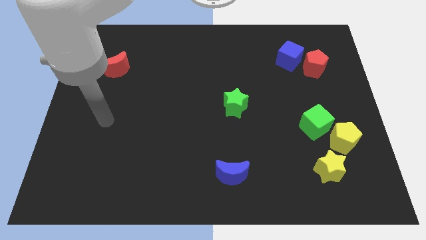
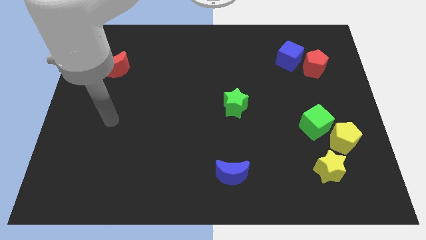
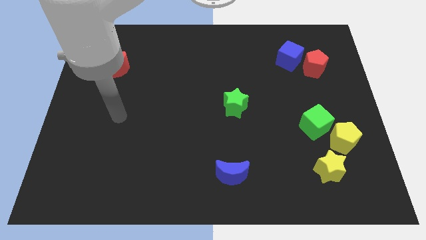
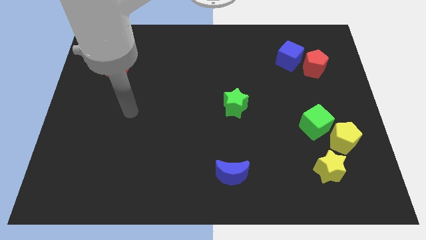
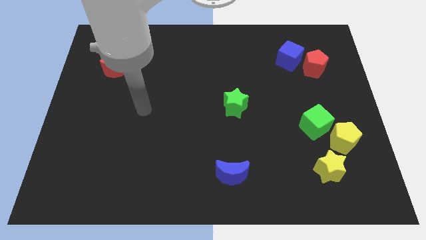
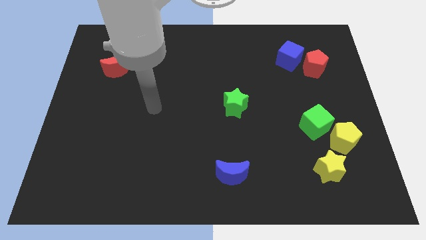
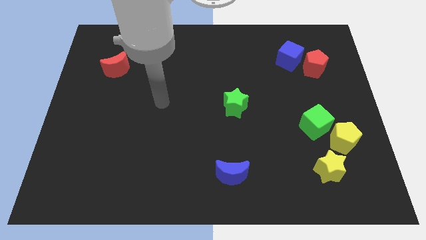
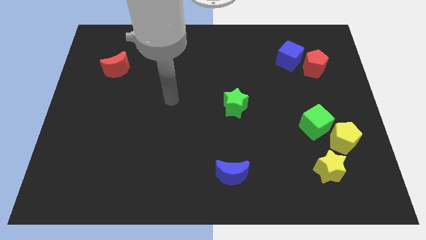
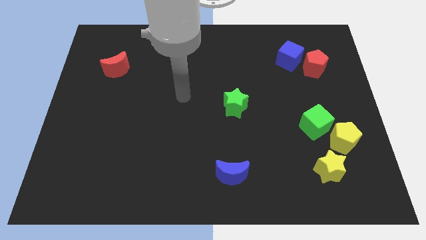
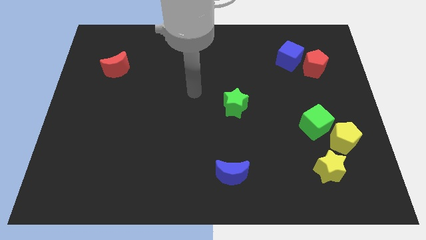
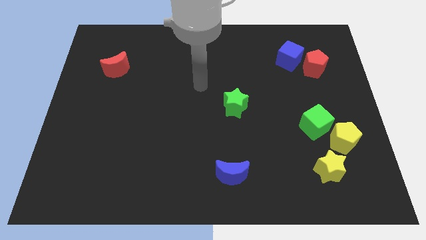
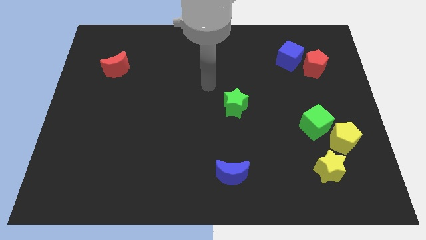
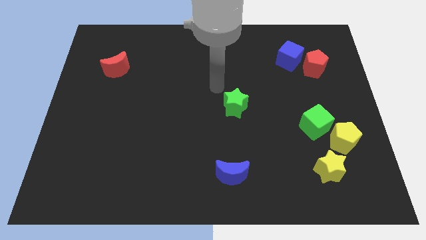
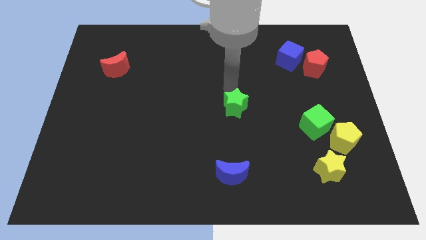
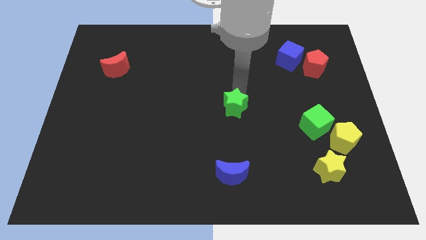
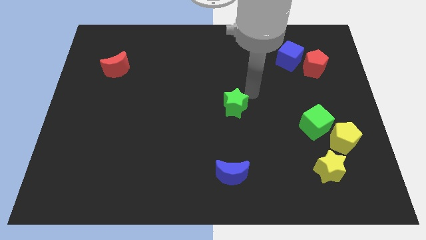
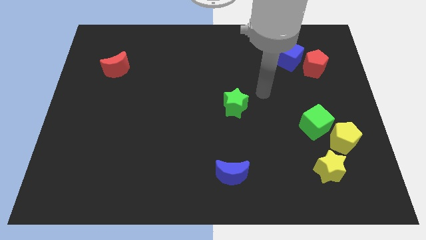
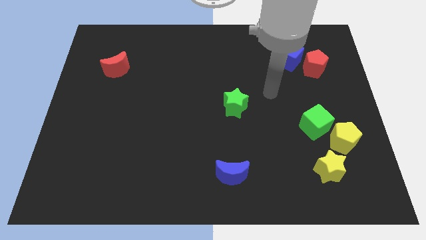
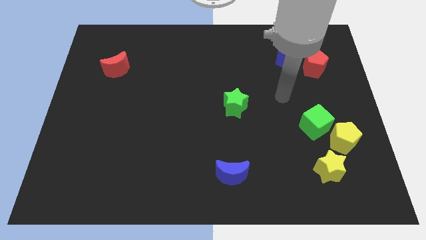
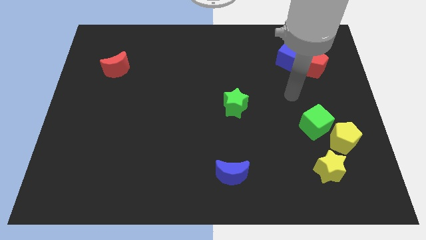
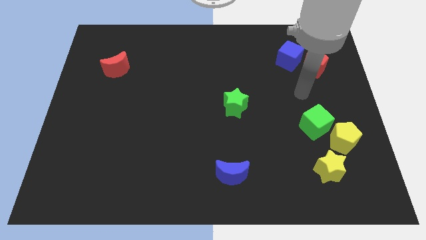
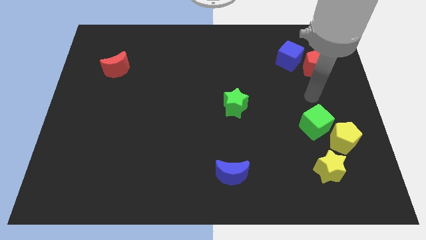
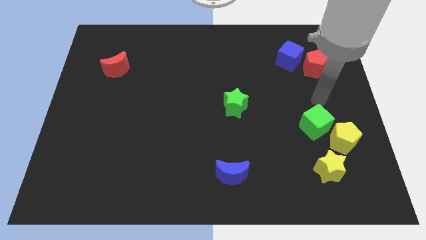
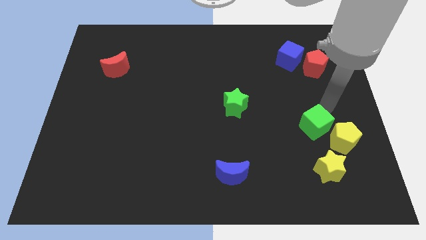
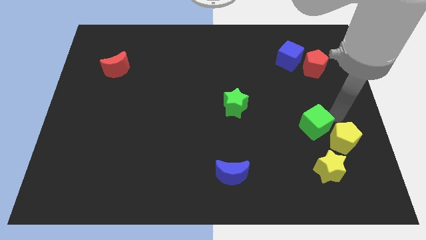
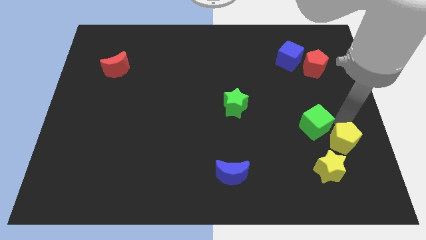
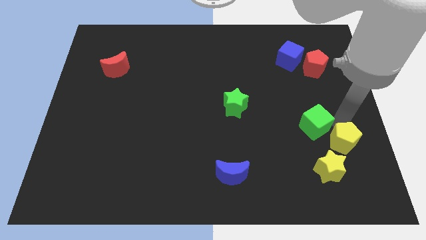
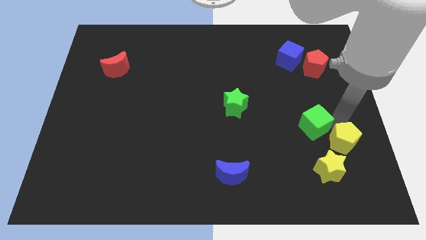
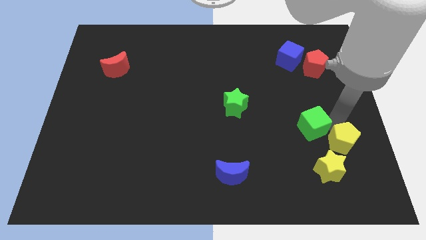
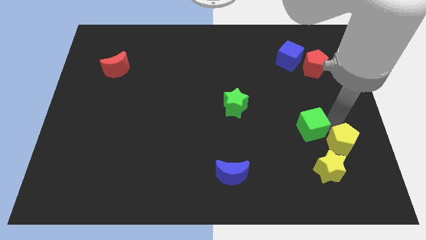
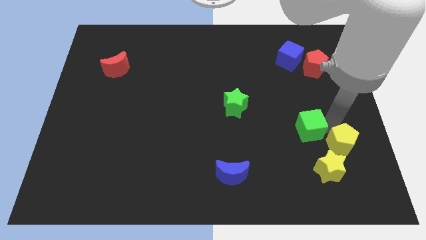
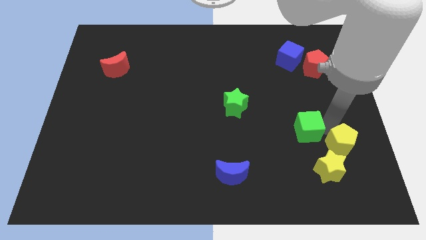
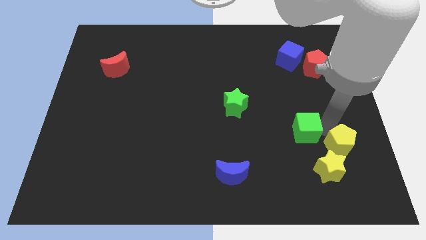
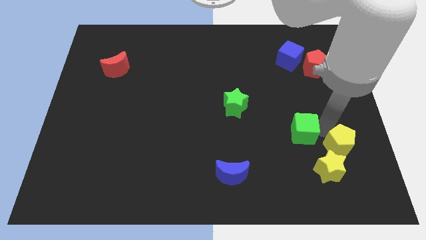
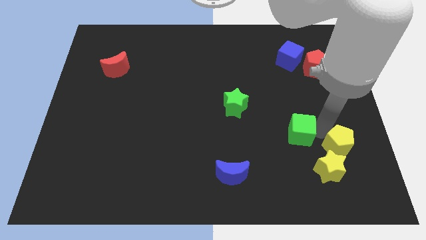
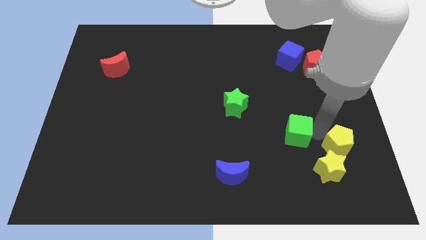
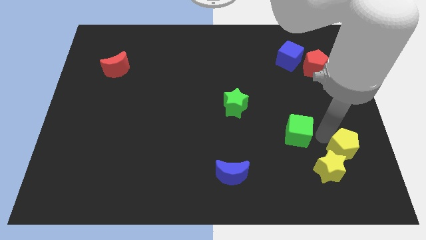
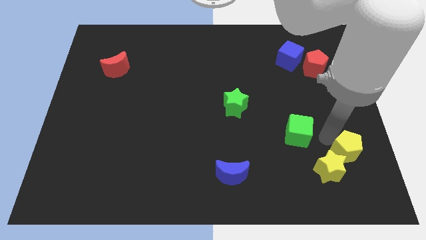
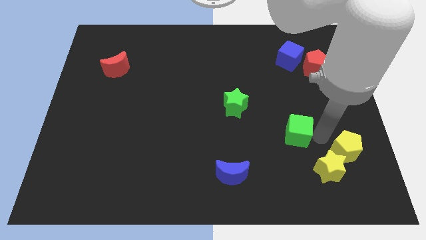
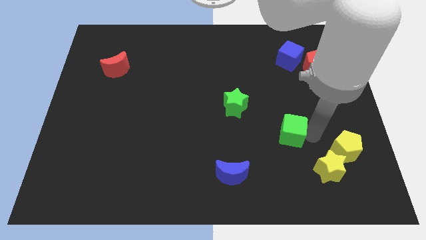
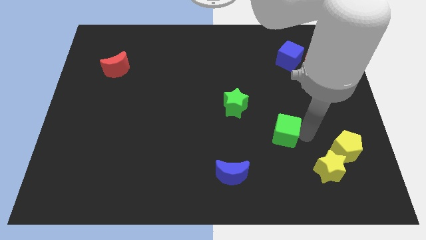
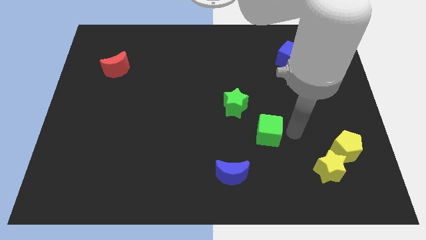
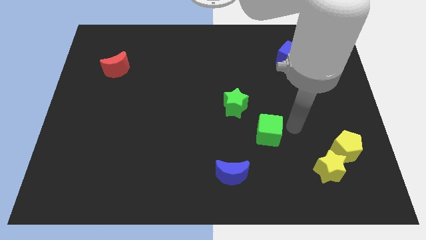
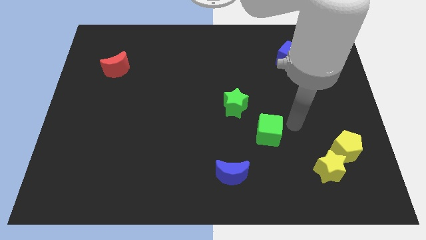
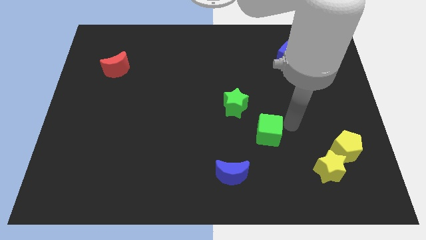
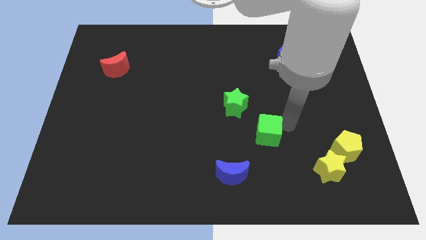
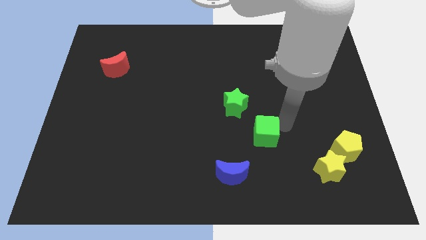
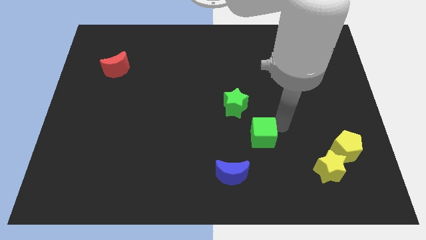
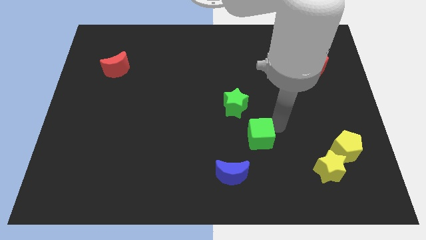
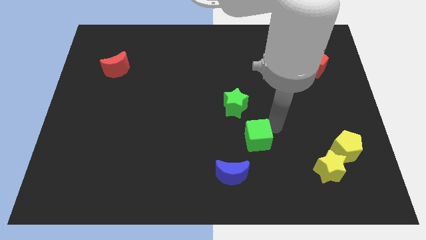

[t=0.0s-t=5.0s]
push the green cube below the green star

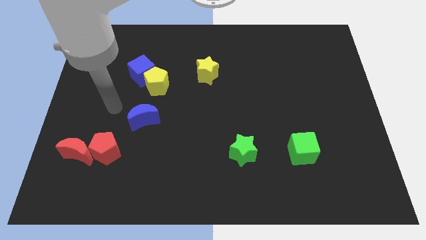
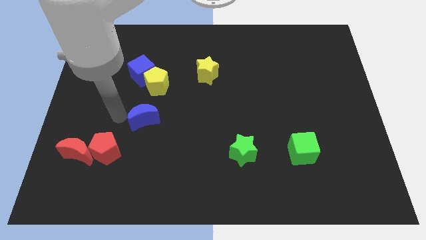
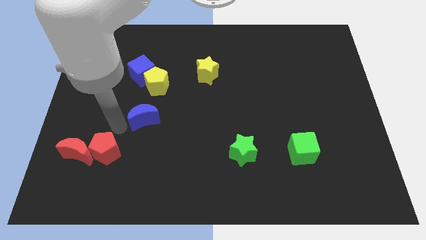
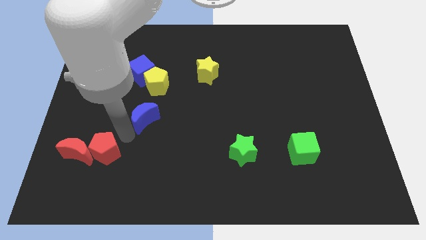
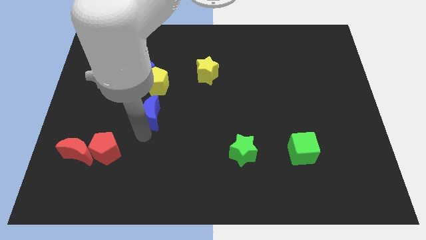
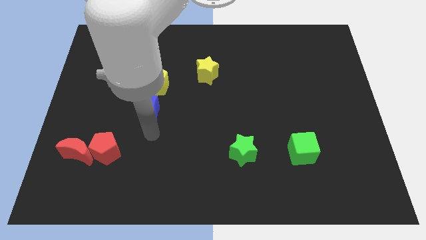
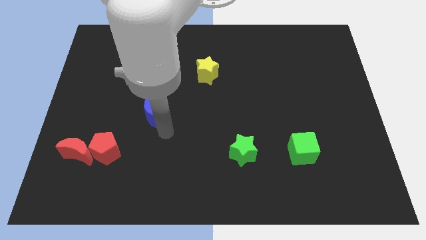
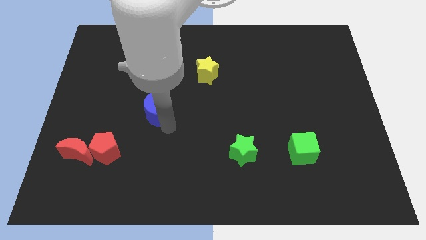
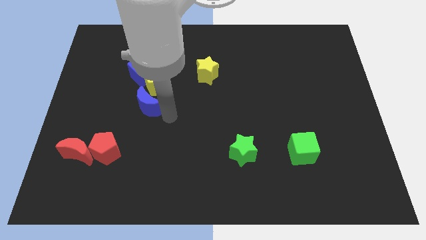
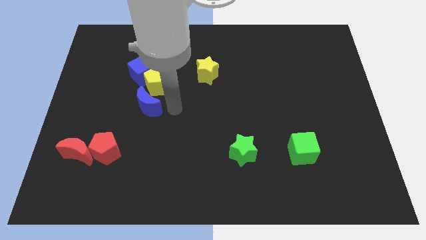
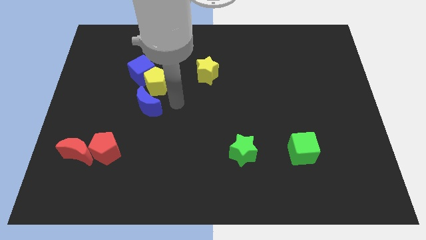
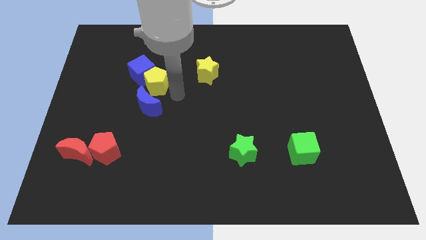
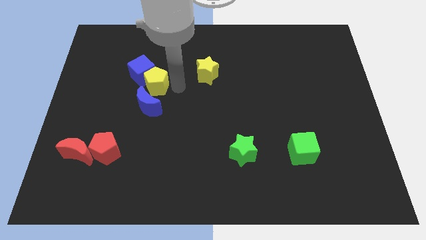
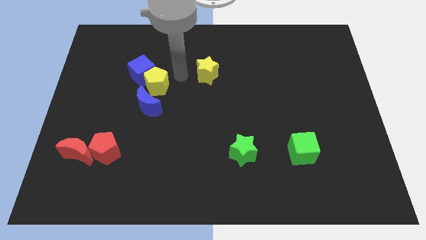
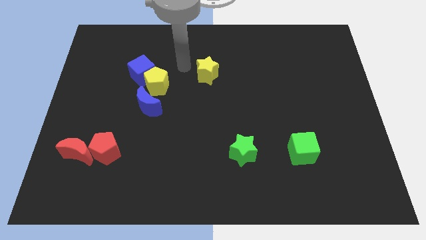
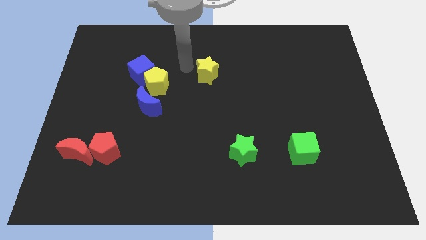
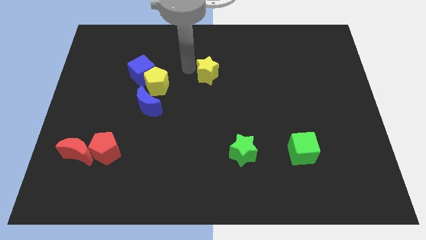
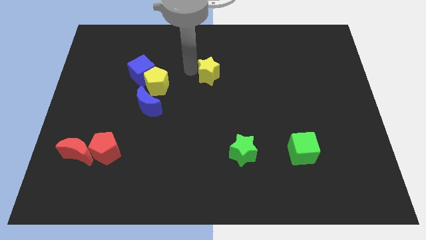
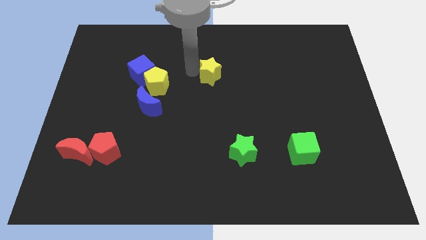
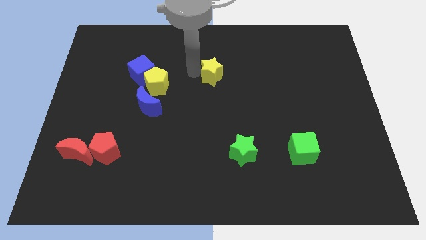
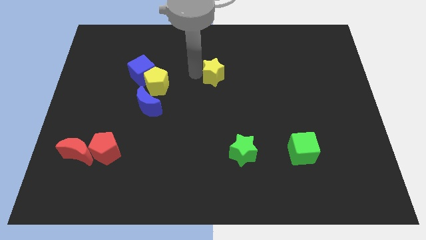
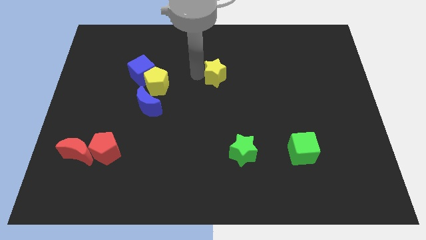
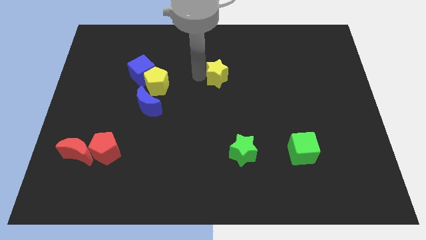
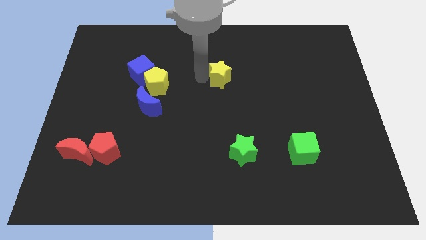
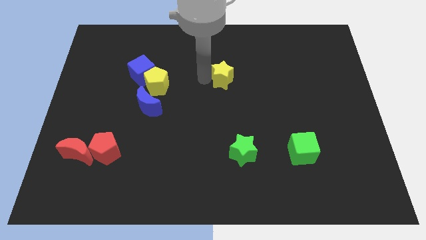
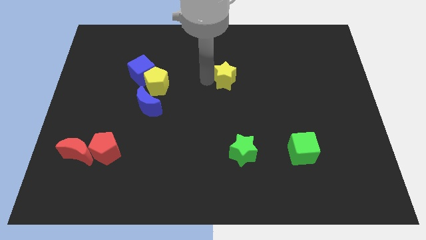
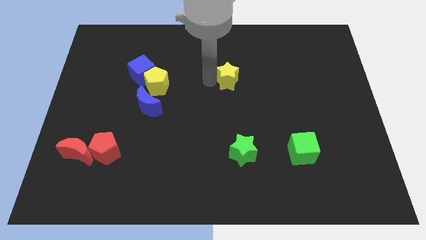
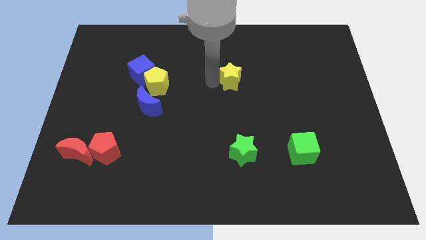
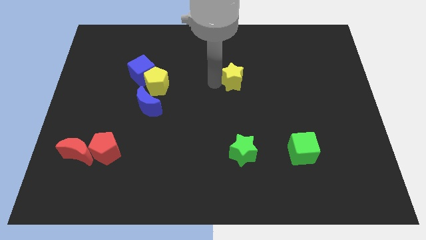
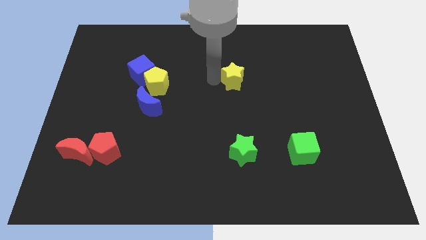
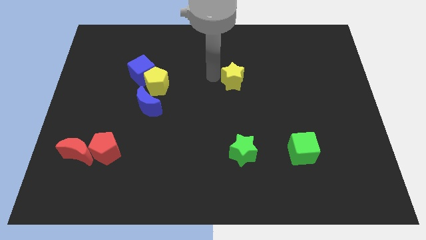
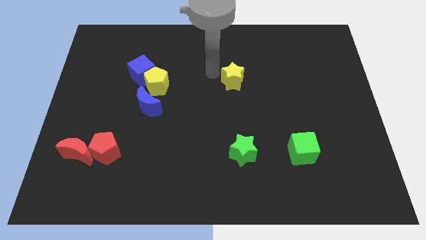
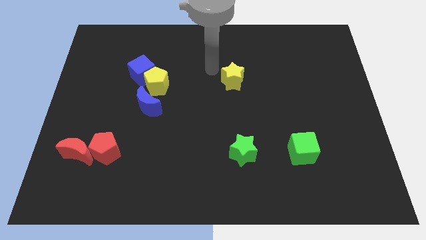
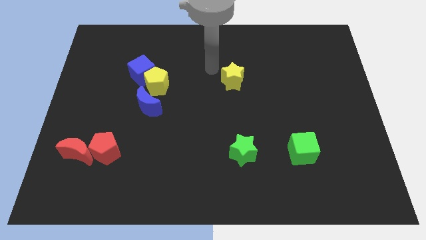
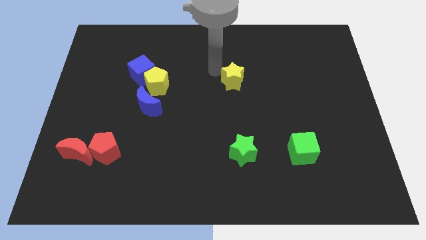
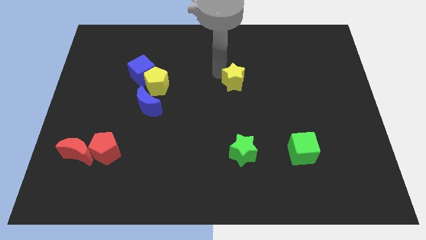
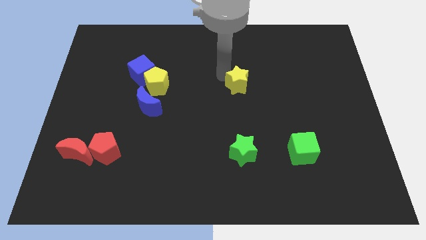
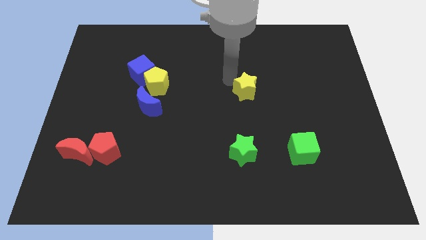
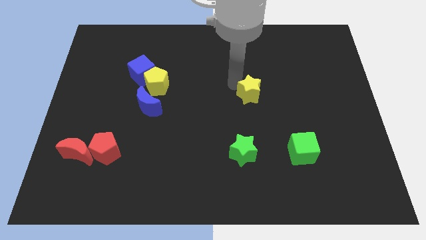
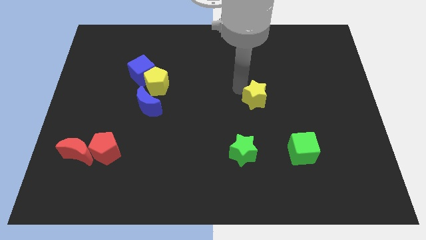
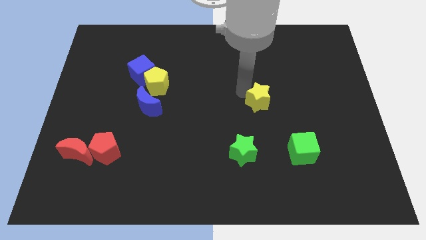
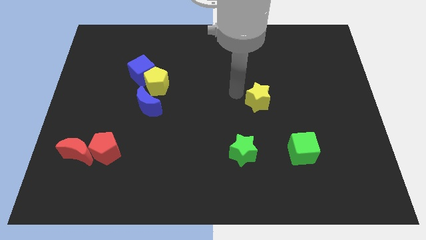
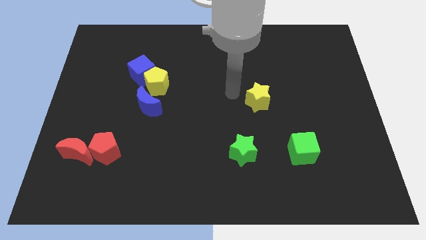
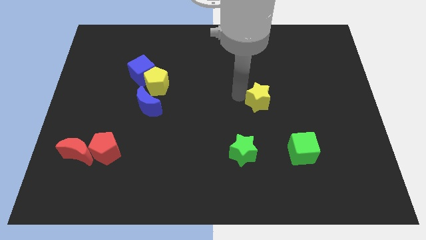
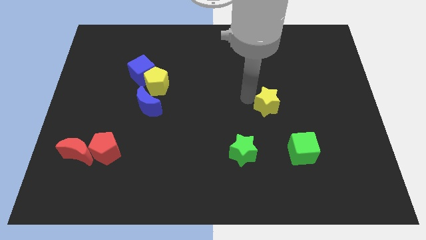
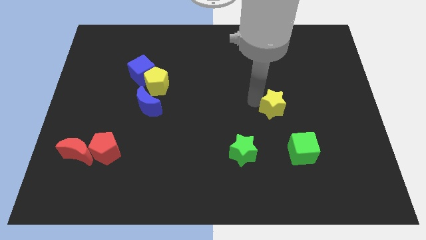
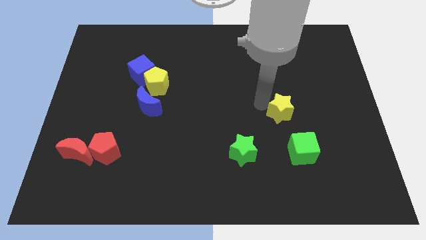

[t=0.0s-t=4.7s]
move the yellow star to the top of the green cube
